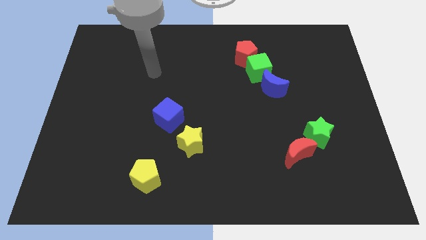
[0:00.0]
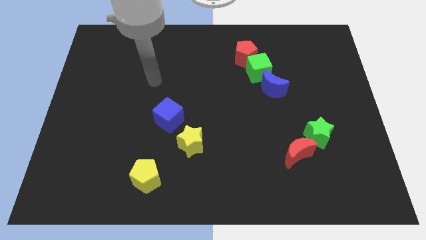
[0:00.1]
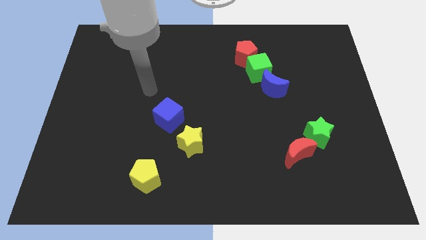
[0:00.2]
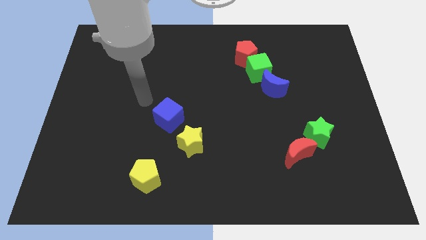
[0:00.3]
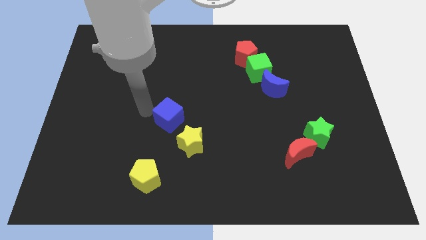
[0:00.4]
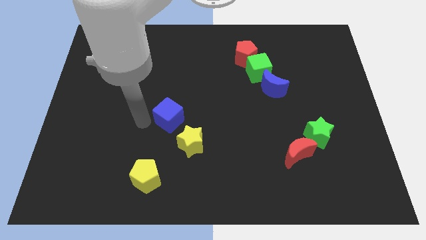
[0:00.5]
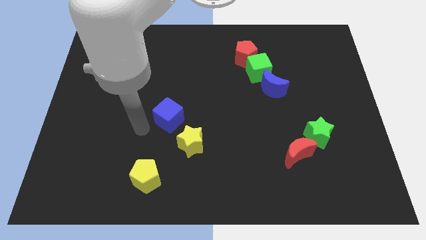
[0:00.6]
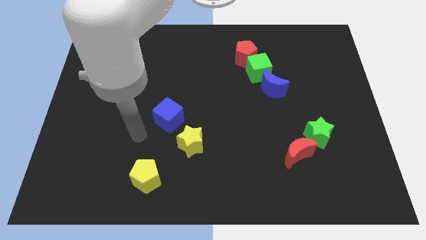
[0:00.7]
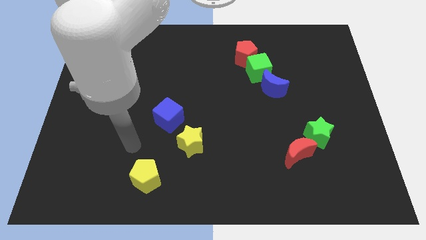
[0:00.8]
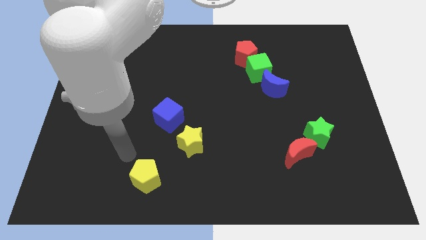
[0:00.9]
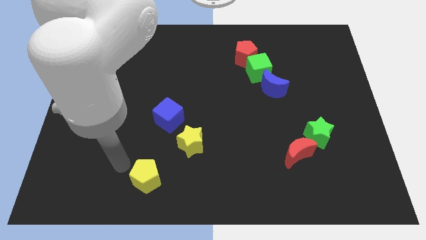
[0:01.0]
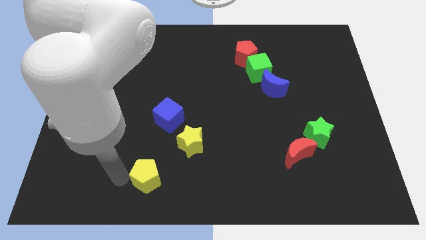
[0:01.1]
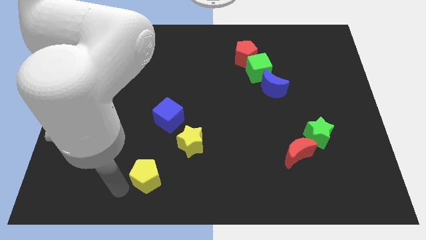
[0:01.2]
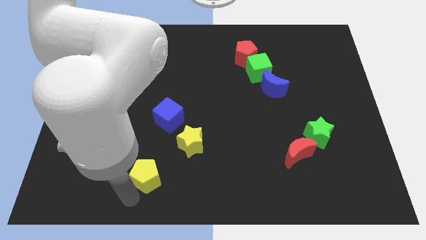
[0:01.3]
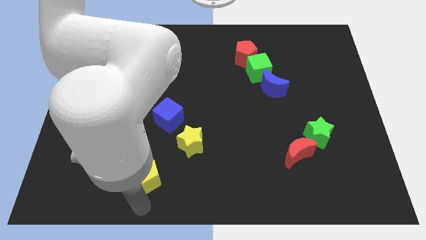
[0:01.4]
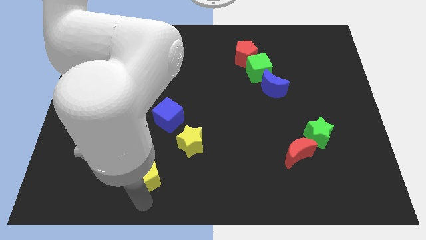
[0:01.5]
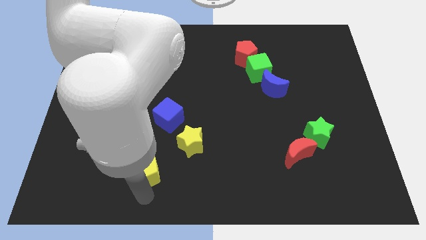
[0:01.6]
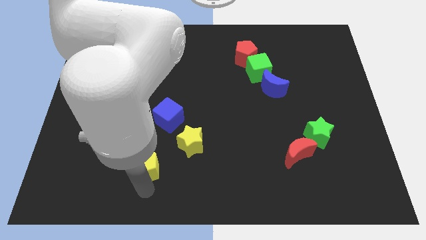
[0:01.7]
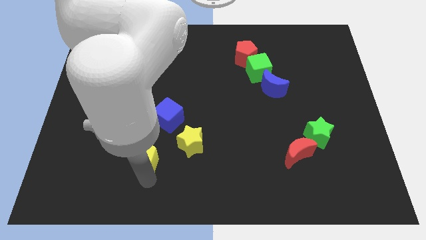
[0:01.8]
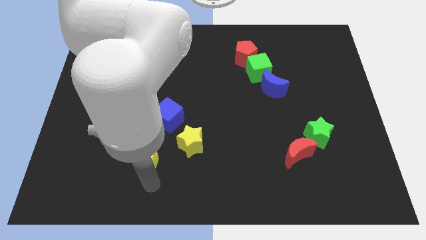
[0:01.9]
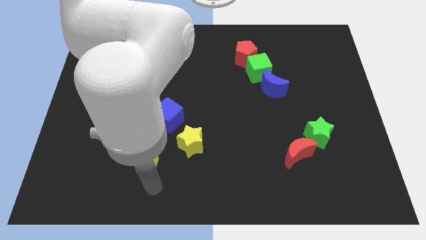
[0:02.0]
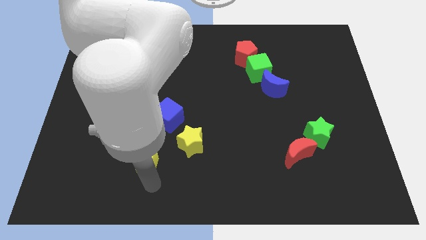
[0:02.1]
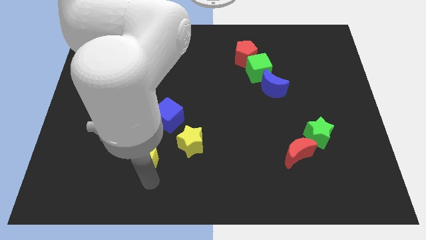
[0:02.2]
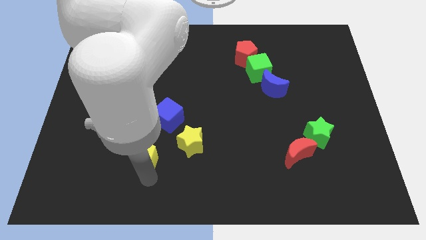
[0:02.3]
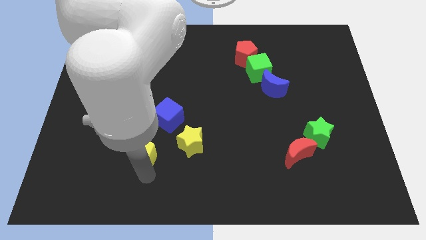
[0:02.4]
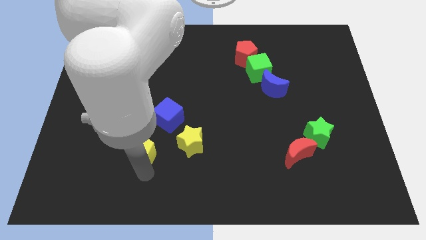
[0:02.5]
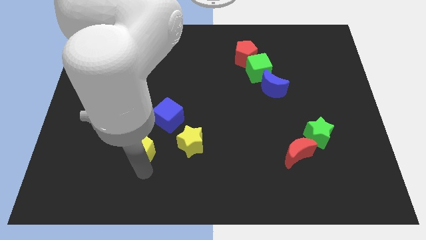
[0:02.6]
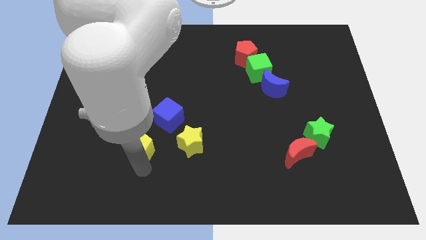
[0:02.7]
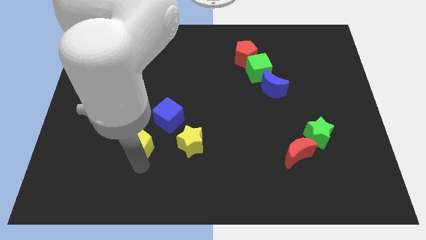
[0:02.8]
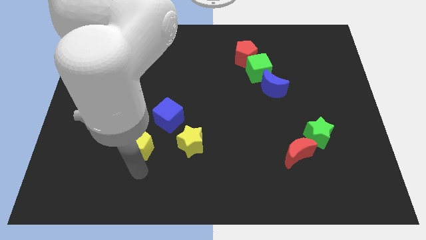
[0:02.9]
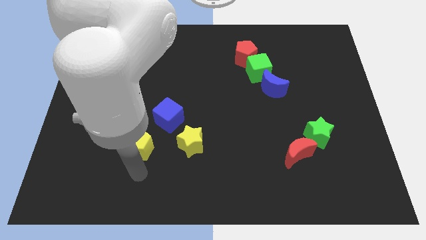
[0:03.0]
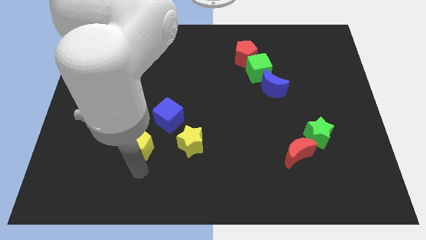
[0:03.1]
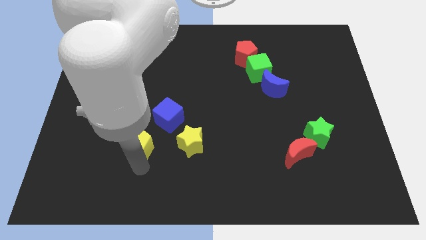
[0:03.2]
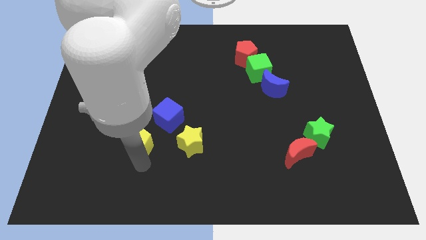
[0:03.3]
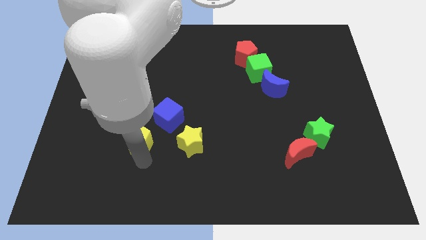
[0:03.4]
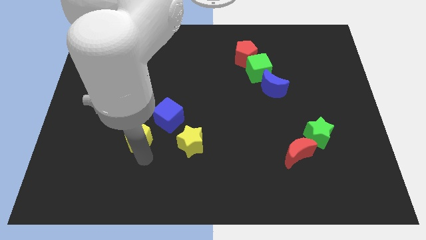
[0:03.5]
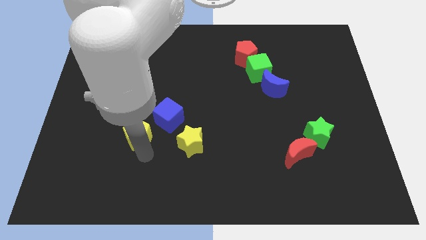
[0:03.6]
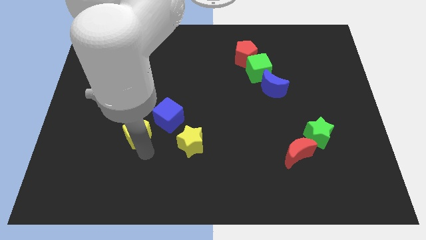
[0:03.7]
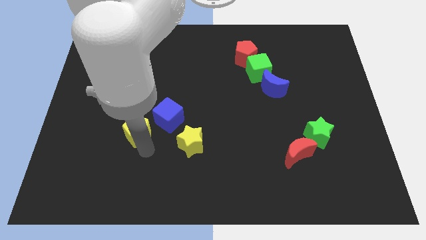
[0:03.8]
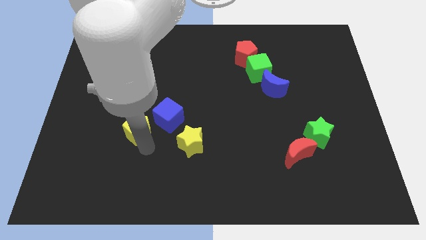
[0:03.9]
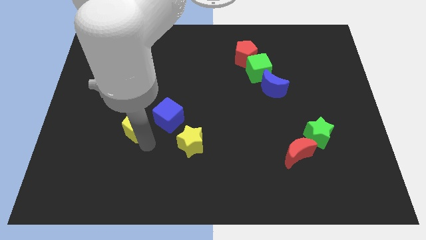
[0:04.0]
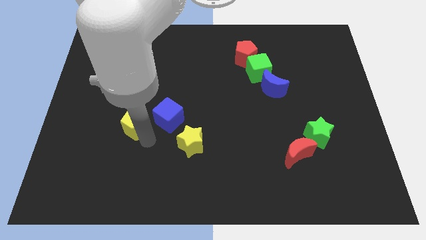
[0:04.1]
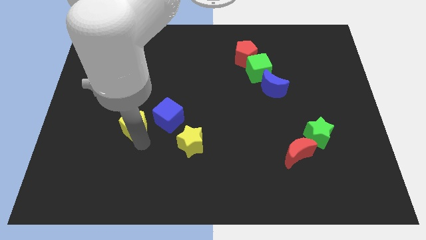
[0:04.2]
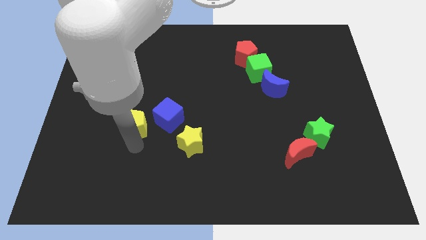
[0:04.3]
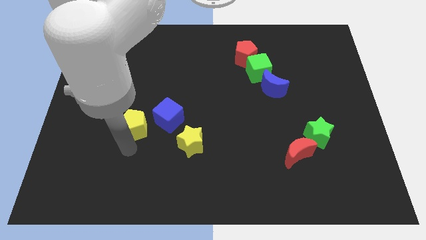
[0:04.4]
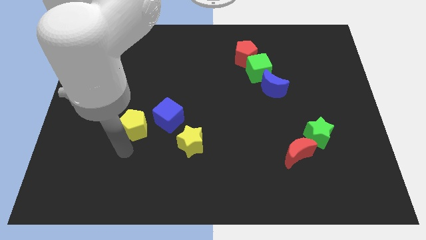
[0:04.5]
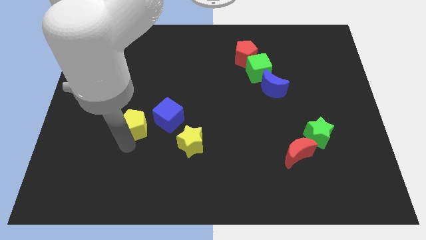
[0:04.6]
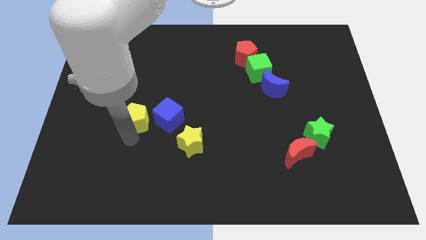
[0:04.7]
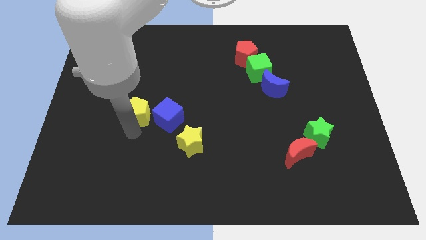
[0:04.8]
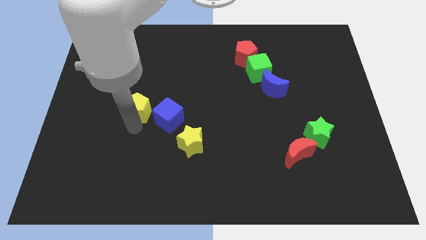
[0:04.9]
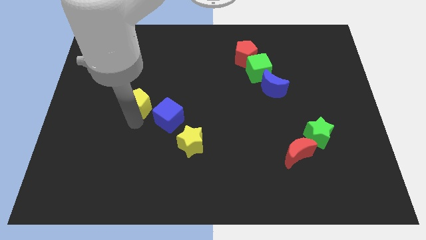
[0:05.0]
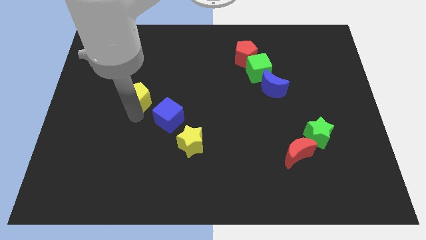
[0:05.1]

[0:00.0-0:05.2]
slide the yellow pentagon up

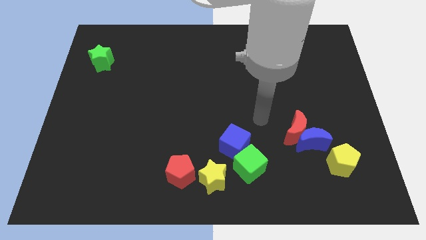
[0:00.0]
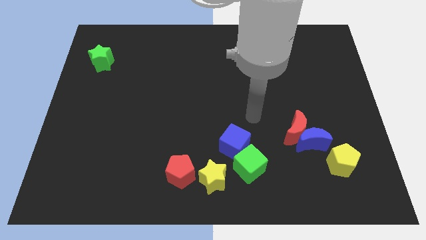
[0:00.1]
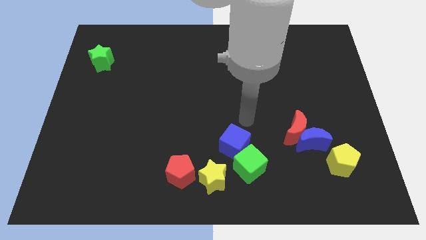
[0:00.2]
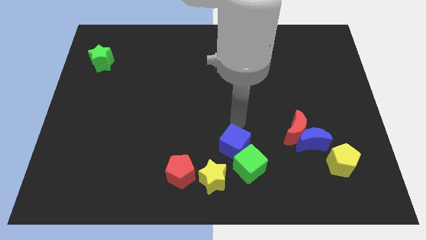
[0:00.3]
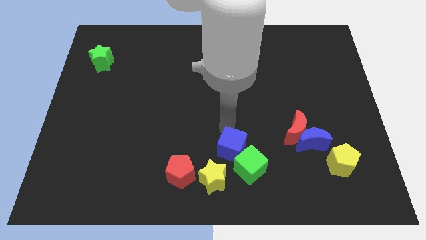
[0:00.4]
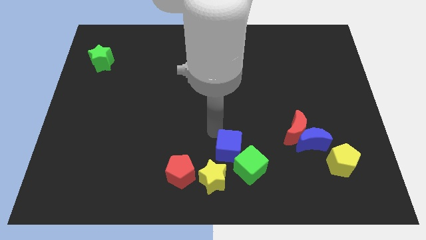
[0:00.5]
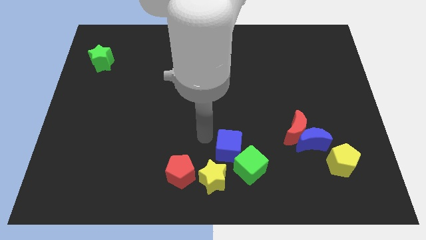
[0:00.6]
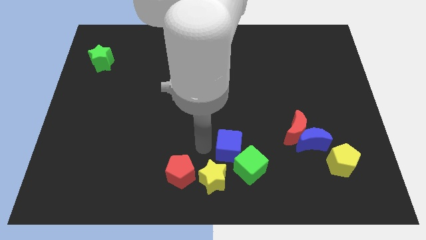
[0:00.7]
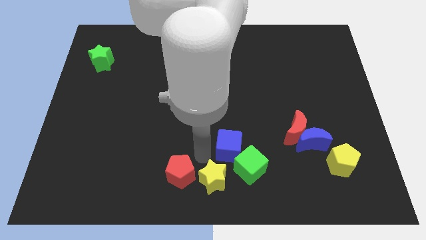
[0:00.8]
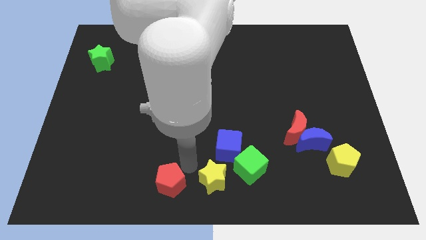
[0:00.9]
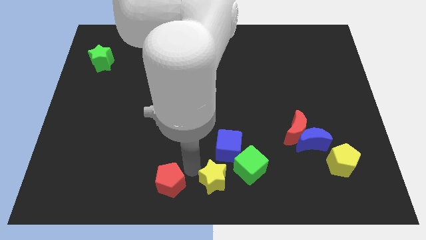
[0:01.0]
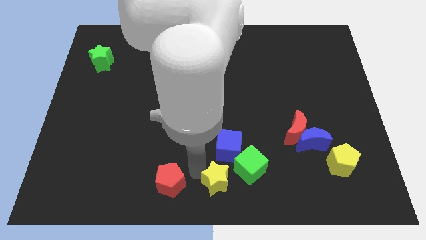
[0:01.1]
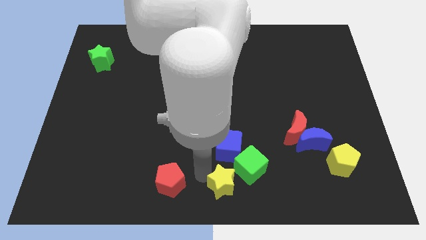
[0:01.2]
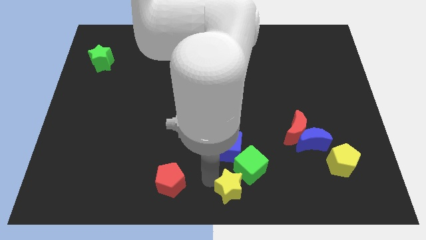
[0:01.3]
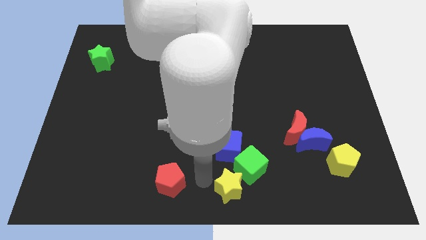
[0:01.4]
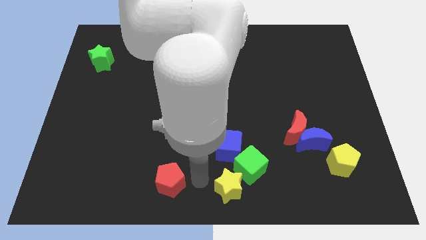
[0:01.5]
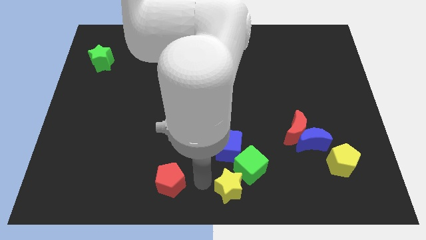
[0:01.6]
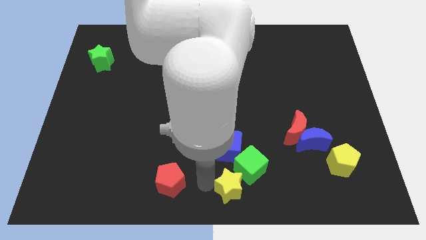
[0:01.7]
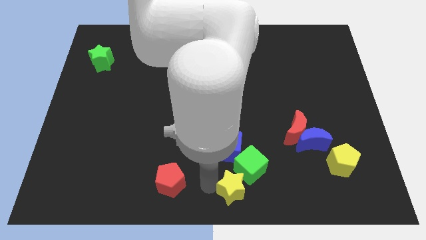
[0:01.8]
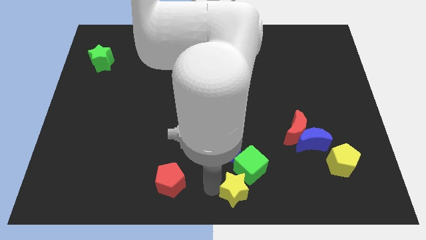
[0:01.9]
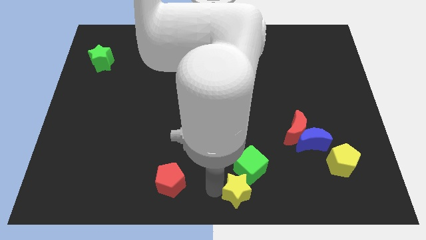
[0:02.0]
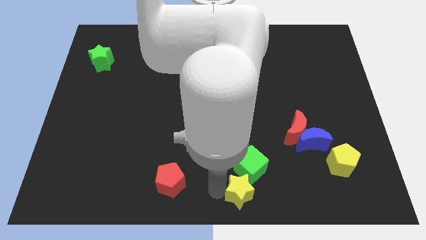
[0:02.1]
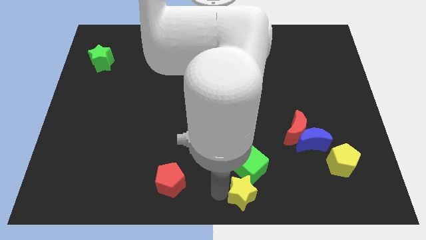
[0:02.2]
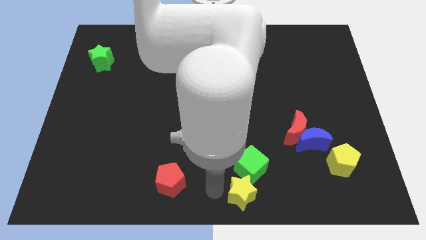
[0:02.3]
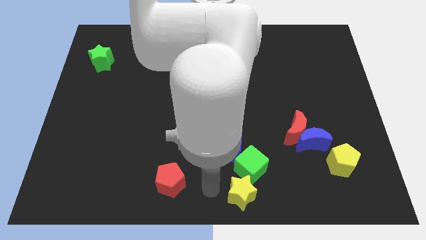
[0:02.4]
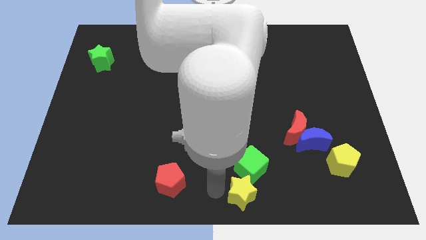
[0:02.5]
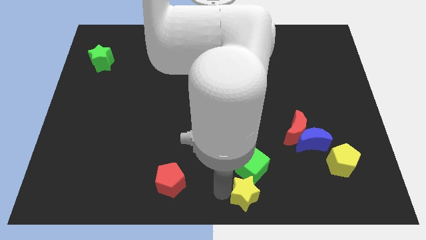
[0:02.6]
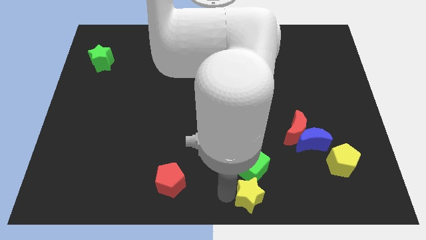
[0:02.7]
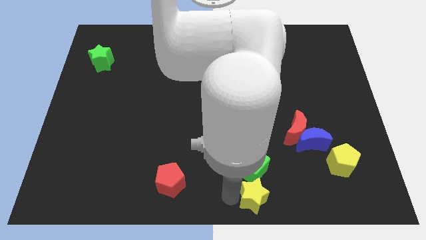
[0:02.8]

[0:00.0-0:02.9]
move the yellow star to the right somewhat
